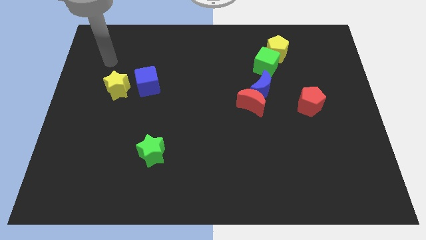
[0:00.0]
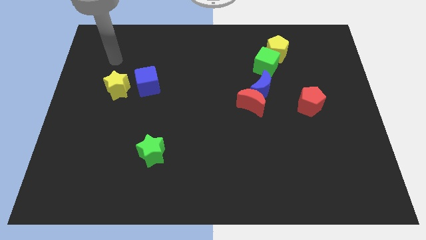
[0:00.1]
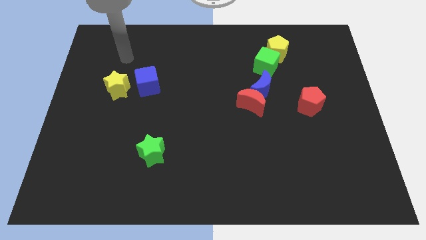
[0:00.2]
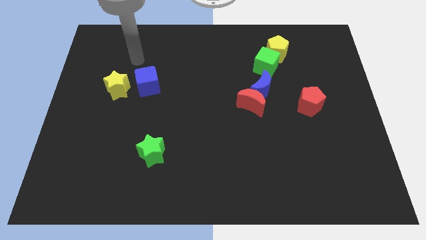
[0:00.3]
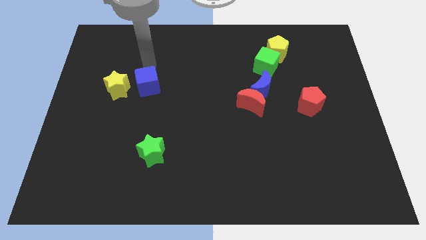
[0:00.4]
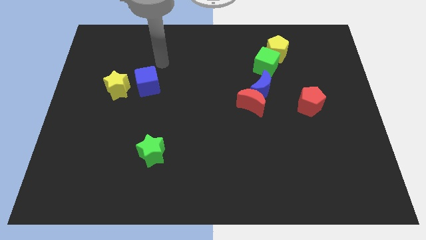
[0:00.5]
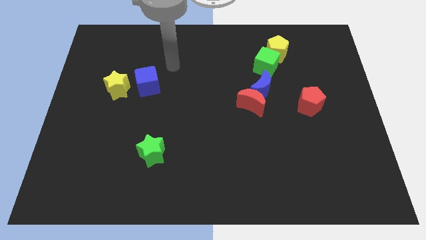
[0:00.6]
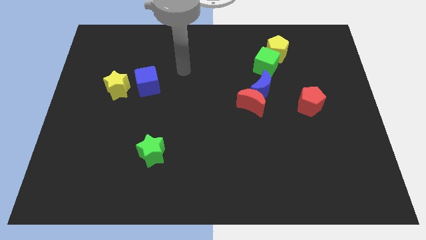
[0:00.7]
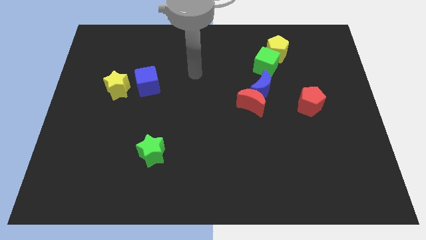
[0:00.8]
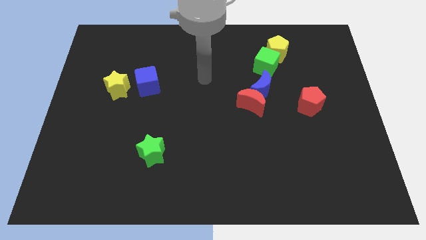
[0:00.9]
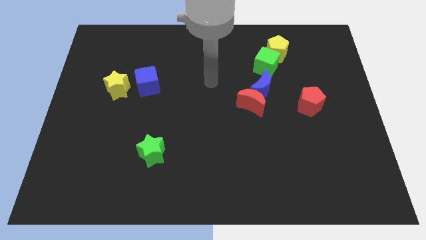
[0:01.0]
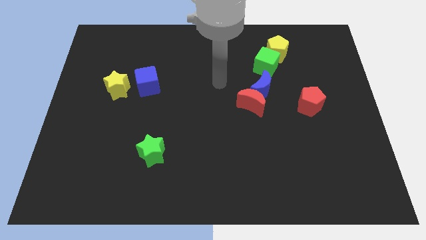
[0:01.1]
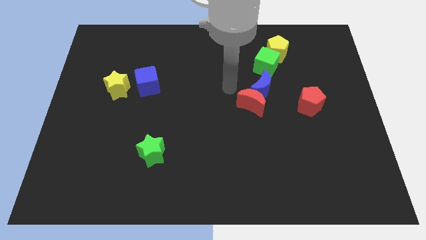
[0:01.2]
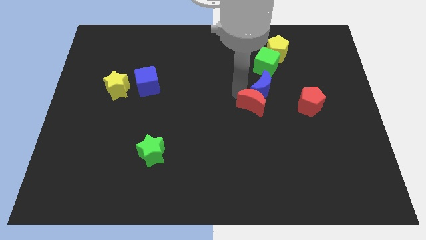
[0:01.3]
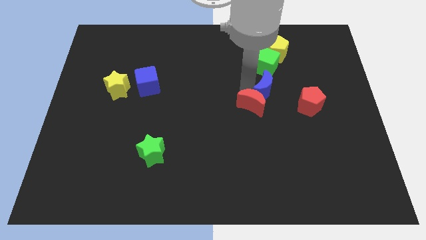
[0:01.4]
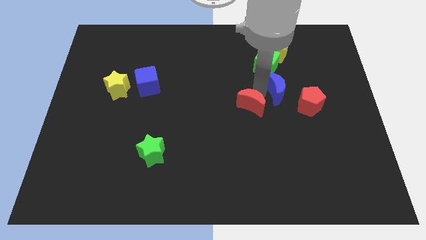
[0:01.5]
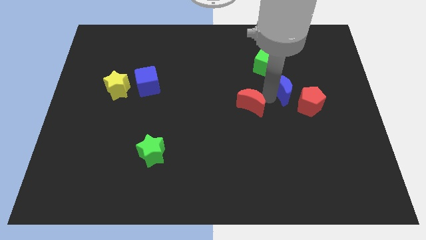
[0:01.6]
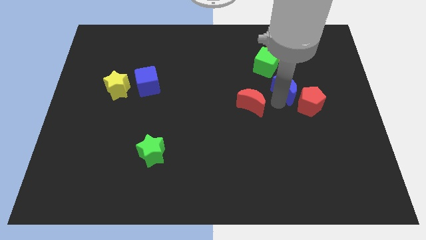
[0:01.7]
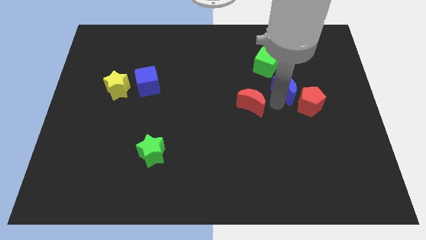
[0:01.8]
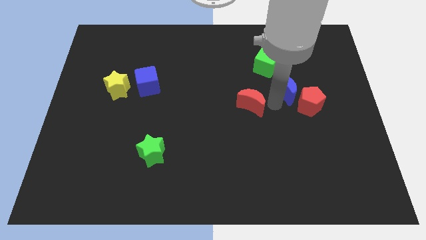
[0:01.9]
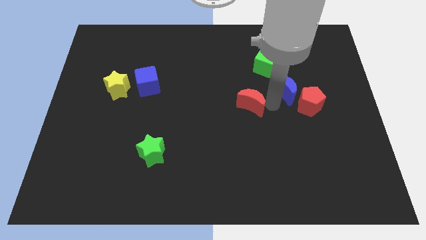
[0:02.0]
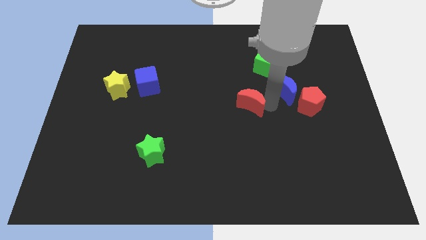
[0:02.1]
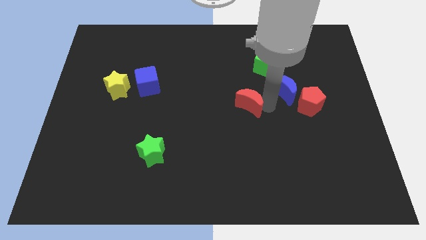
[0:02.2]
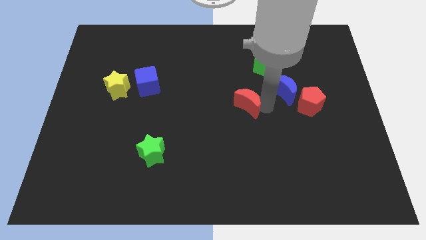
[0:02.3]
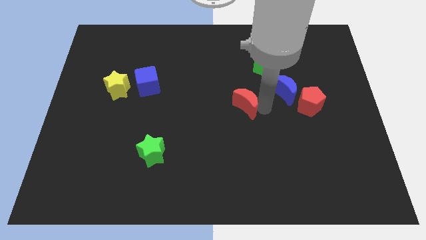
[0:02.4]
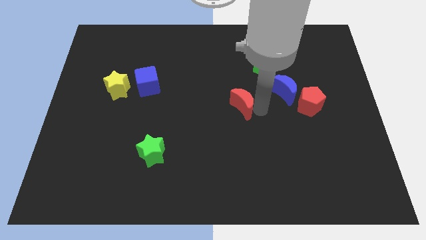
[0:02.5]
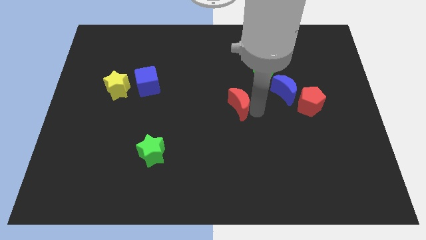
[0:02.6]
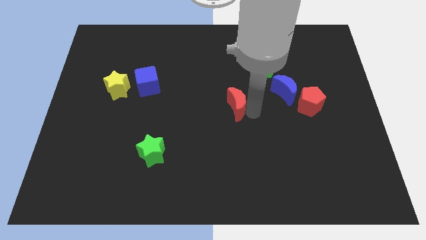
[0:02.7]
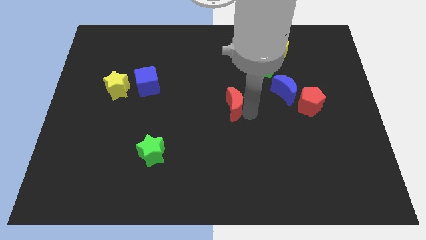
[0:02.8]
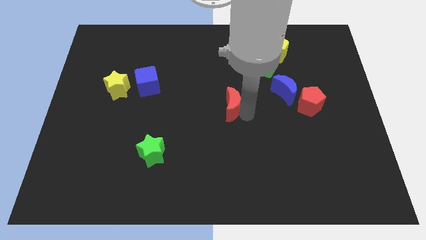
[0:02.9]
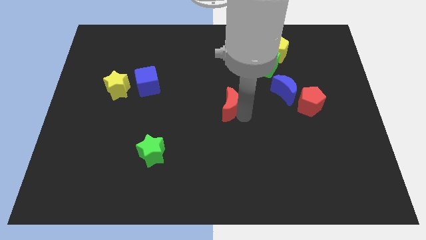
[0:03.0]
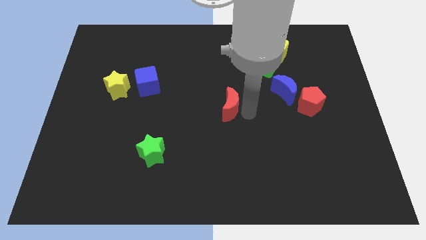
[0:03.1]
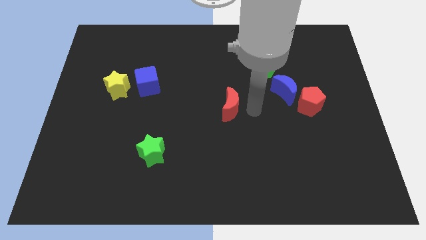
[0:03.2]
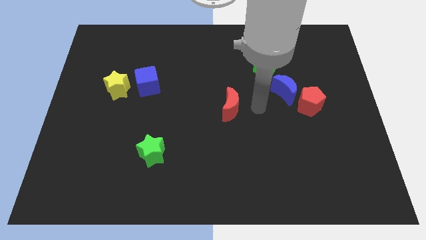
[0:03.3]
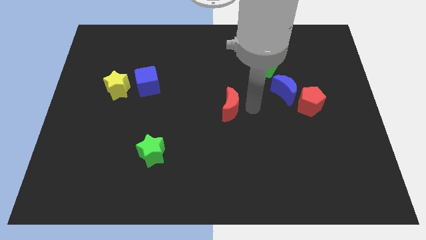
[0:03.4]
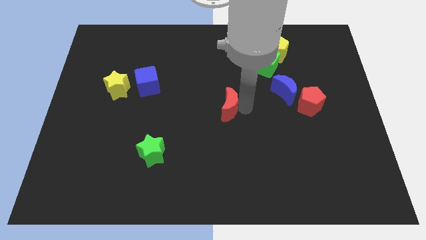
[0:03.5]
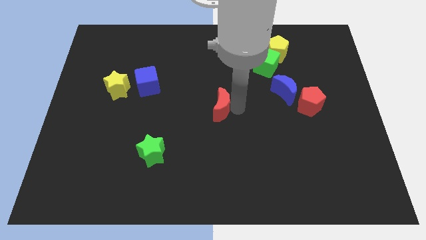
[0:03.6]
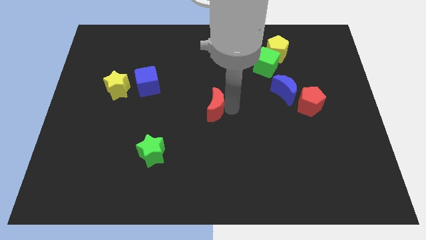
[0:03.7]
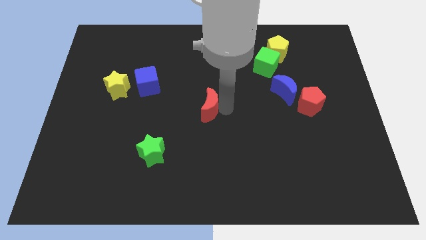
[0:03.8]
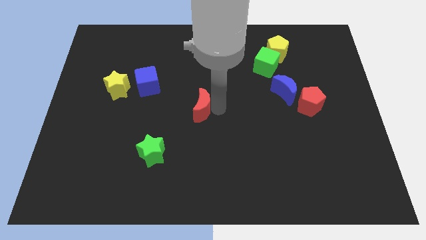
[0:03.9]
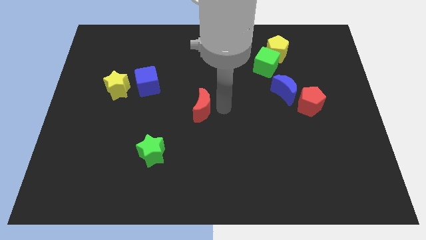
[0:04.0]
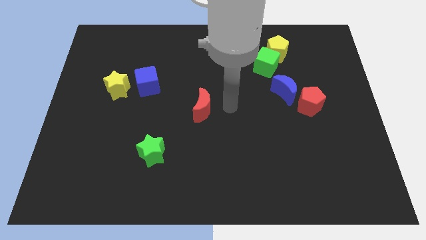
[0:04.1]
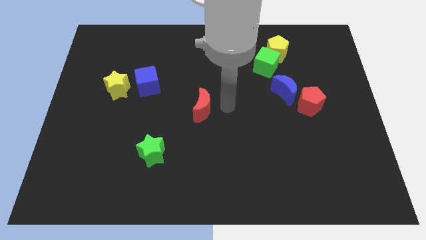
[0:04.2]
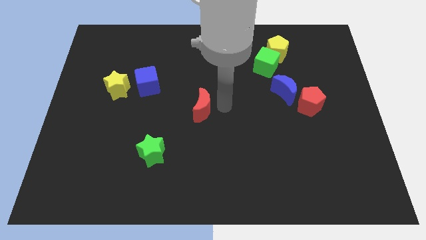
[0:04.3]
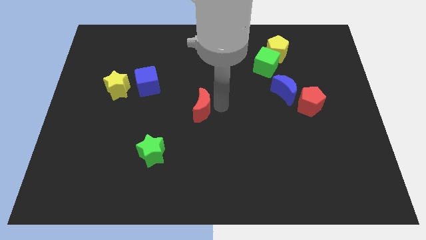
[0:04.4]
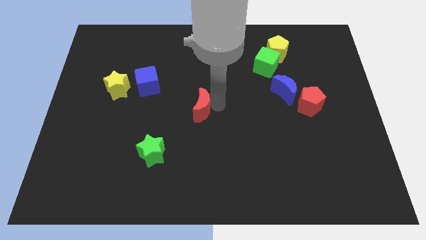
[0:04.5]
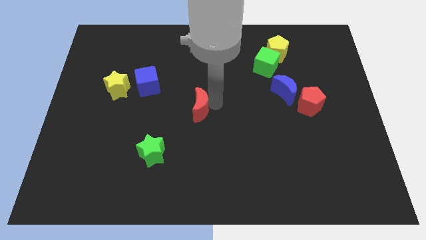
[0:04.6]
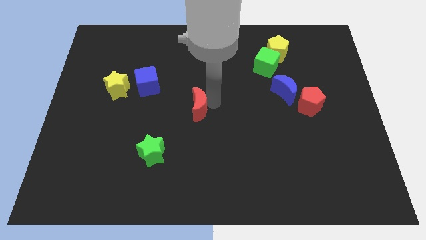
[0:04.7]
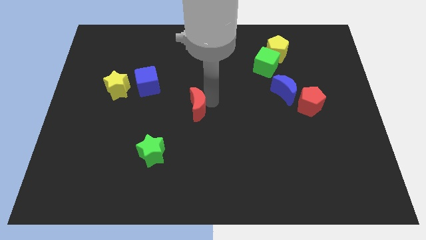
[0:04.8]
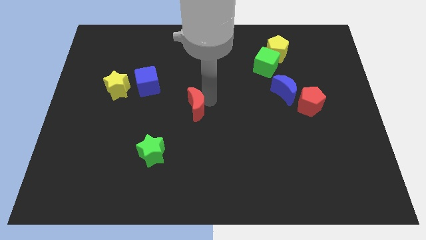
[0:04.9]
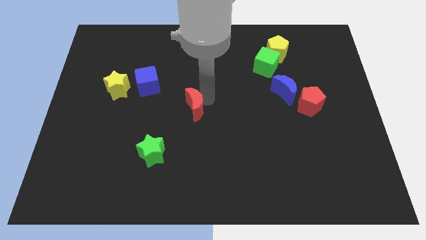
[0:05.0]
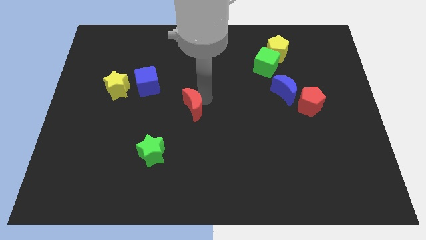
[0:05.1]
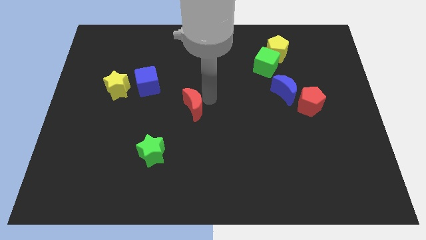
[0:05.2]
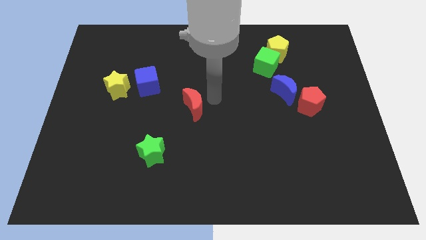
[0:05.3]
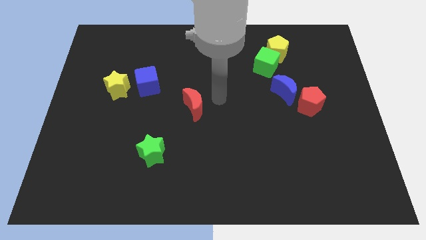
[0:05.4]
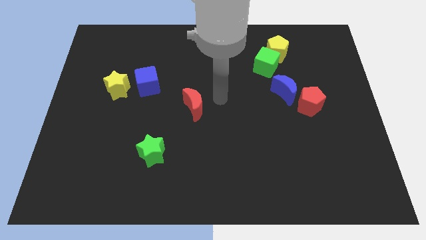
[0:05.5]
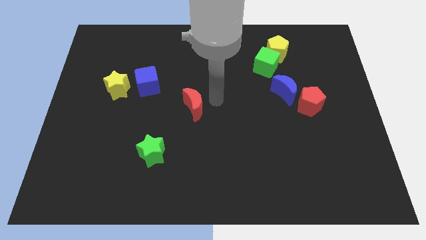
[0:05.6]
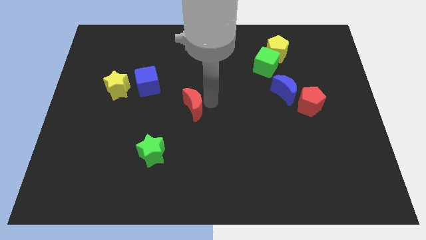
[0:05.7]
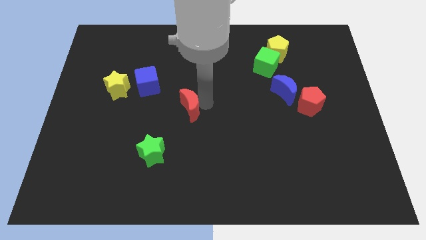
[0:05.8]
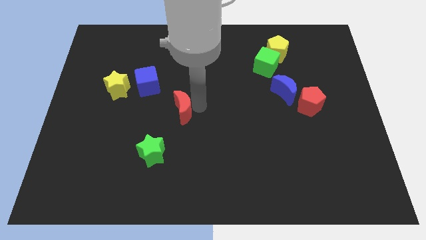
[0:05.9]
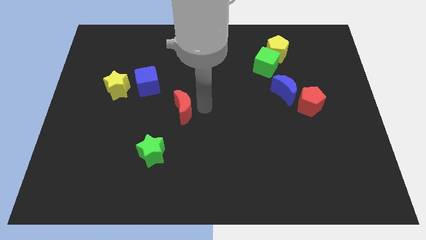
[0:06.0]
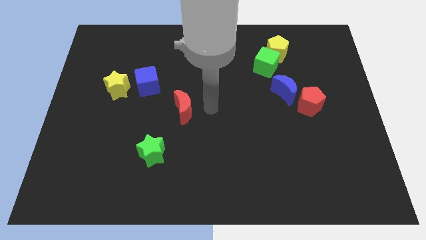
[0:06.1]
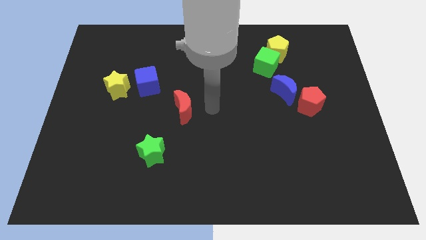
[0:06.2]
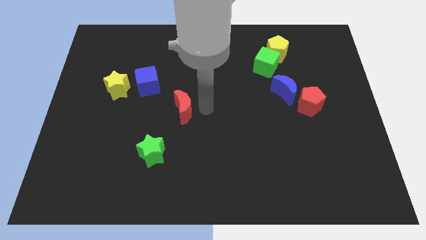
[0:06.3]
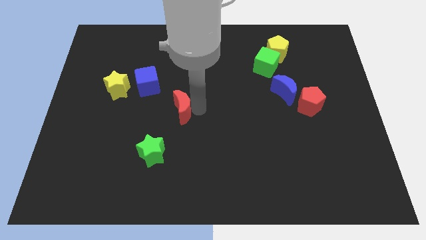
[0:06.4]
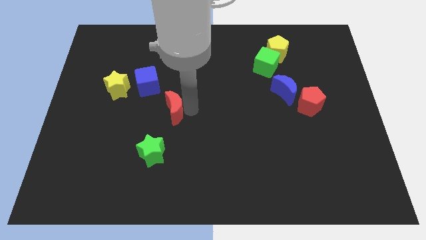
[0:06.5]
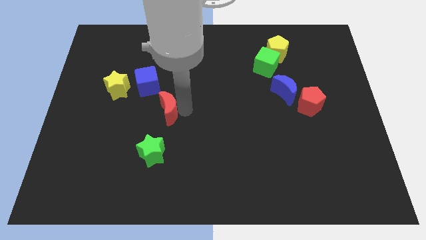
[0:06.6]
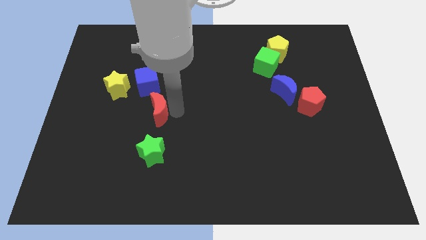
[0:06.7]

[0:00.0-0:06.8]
slide the red moon left

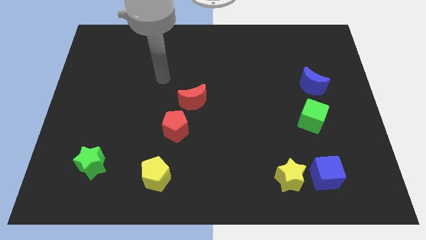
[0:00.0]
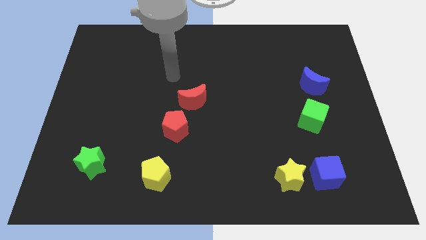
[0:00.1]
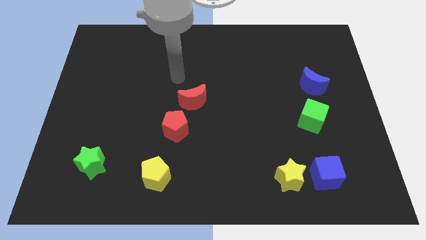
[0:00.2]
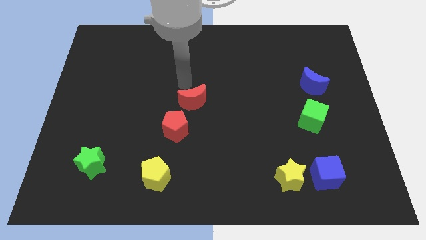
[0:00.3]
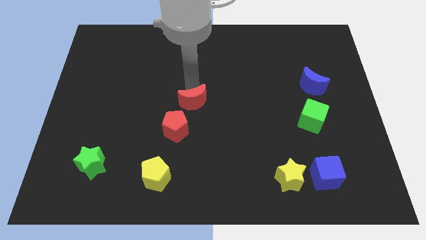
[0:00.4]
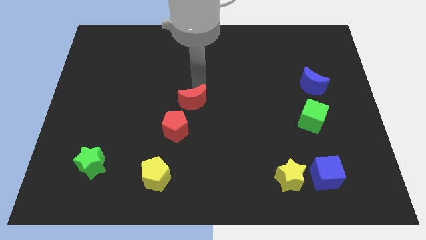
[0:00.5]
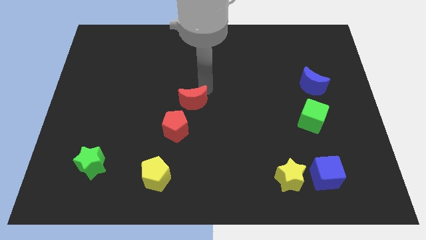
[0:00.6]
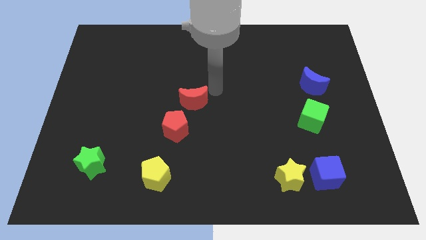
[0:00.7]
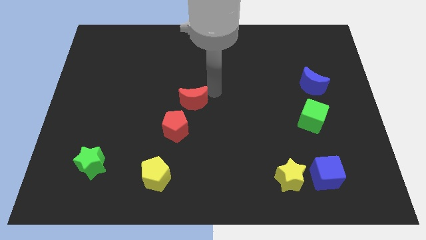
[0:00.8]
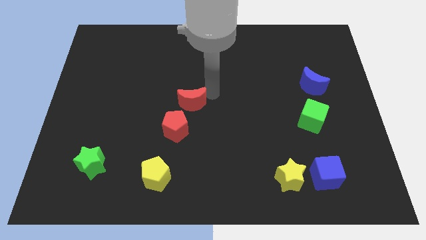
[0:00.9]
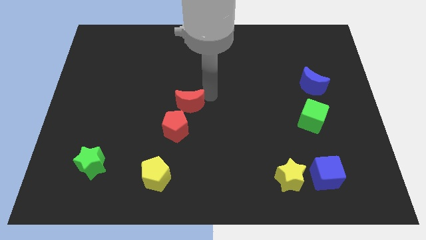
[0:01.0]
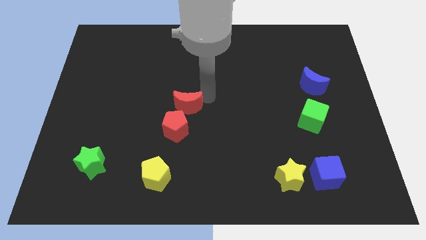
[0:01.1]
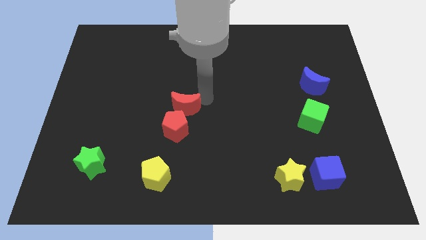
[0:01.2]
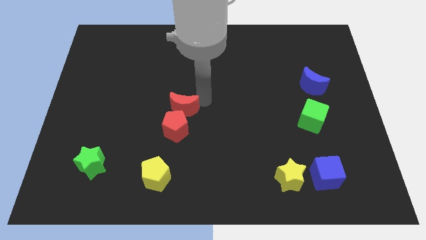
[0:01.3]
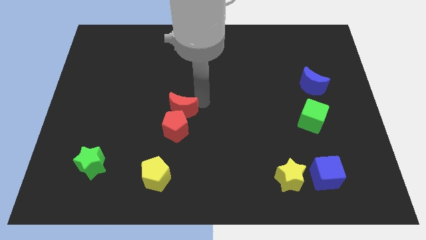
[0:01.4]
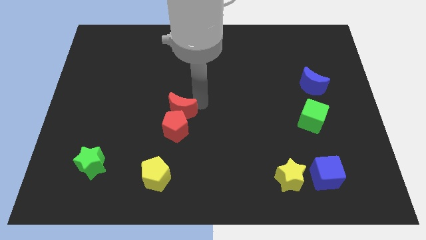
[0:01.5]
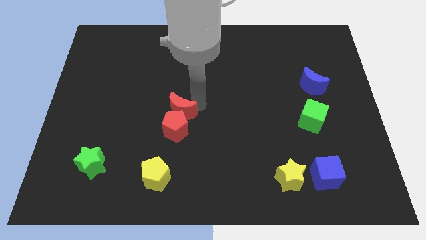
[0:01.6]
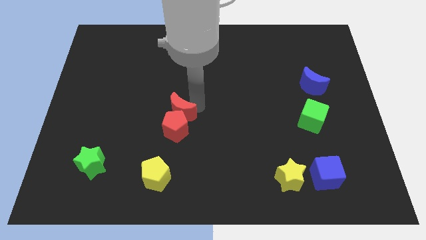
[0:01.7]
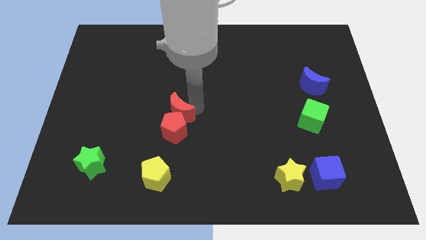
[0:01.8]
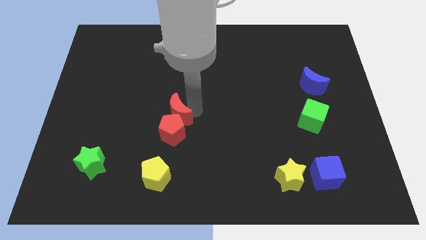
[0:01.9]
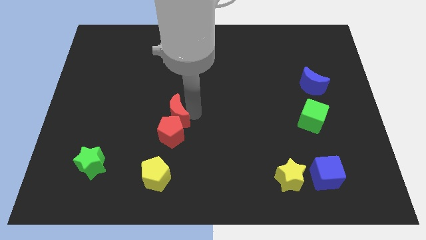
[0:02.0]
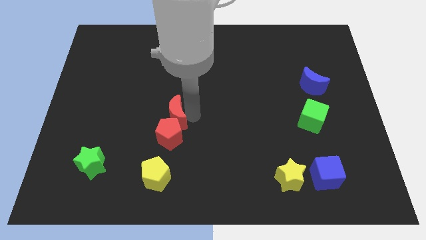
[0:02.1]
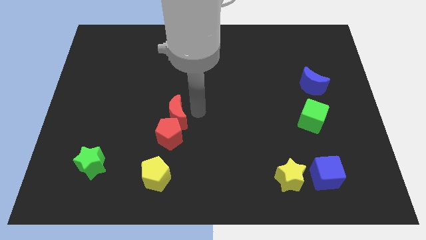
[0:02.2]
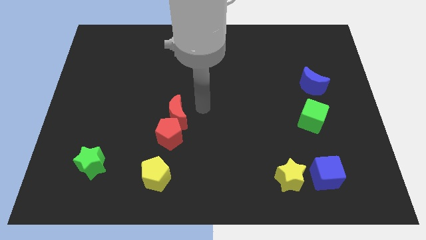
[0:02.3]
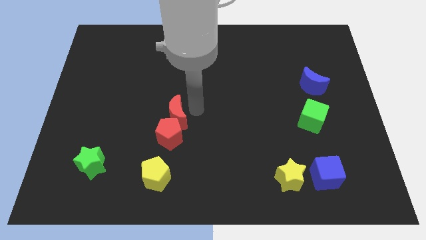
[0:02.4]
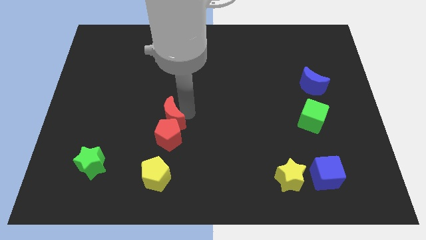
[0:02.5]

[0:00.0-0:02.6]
move the red moon downwards and left diagonally slightly
